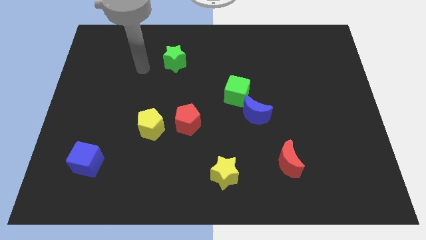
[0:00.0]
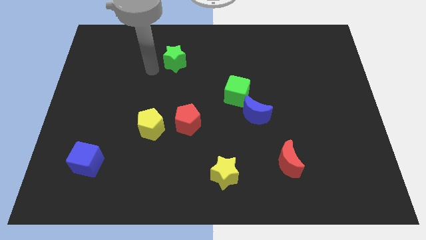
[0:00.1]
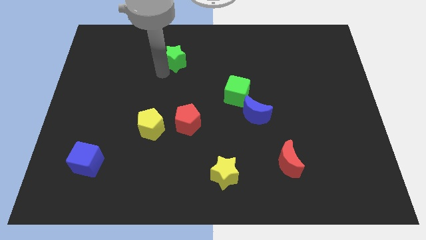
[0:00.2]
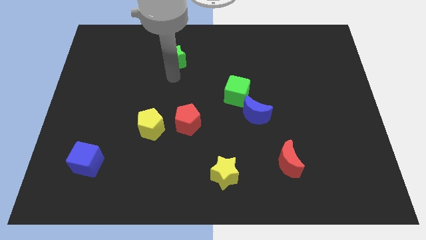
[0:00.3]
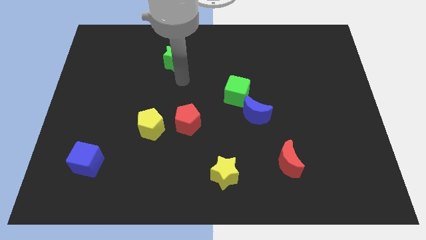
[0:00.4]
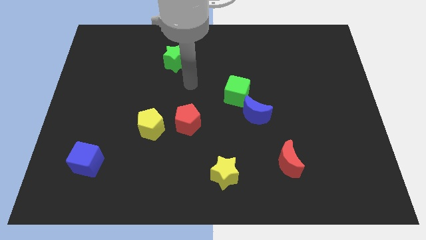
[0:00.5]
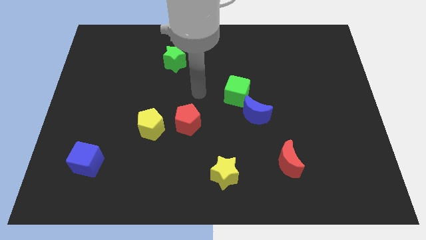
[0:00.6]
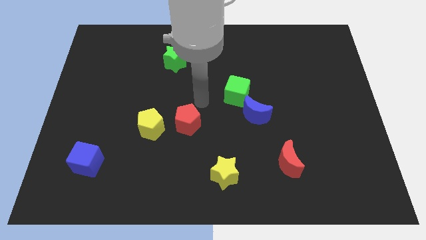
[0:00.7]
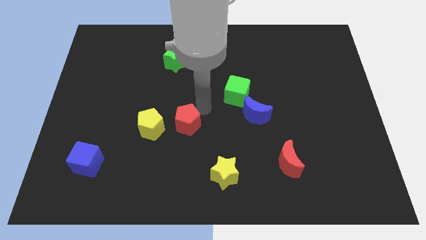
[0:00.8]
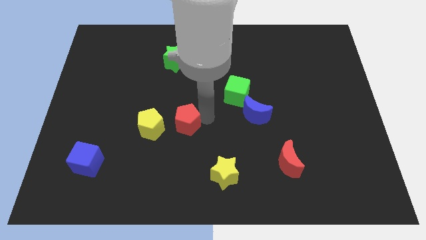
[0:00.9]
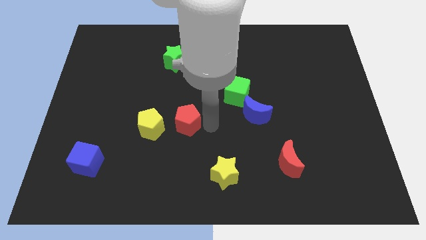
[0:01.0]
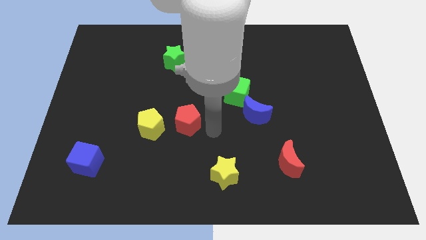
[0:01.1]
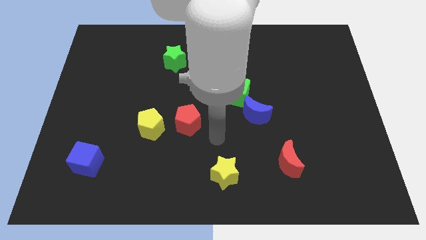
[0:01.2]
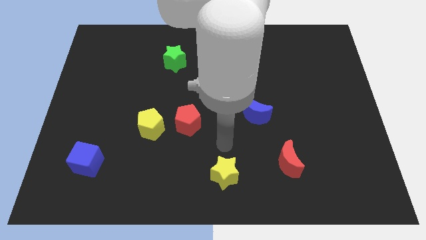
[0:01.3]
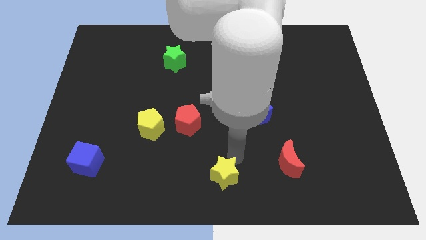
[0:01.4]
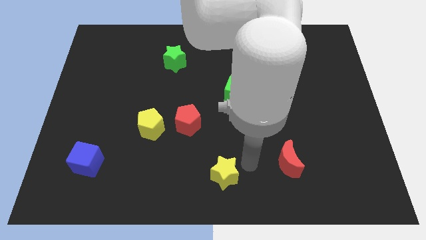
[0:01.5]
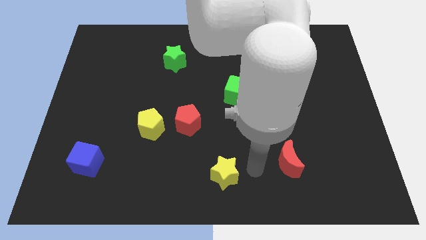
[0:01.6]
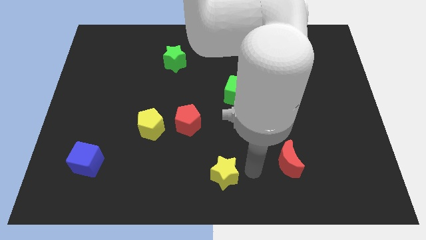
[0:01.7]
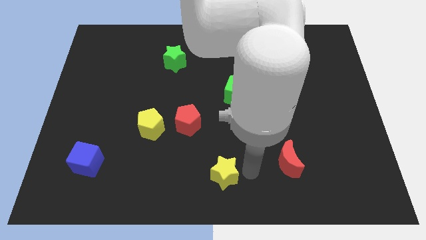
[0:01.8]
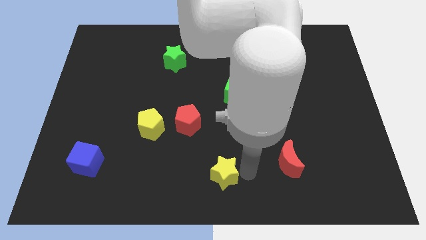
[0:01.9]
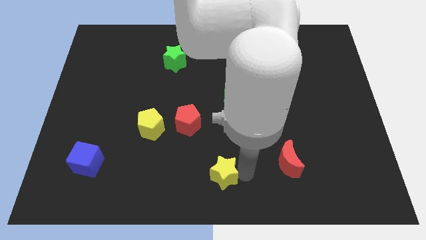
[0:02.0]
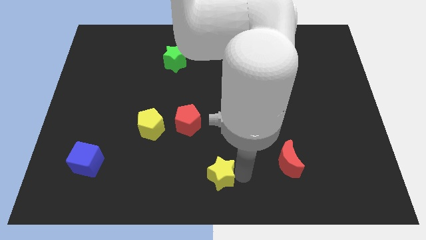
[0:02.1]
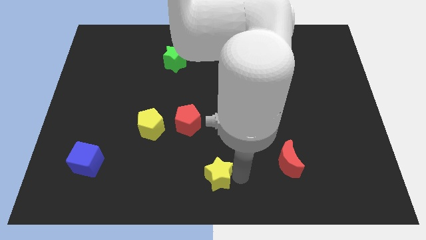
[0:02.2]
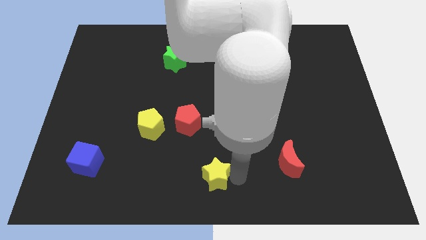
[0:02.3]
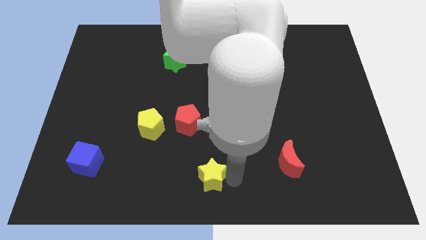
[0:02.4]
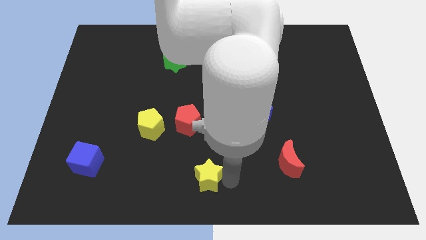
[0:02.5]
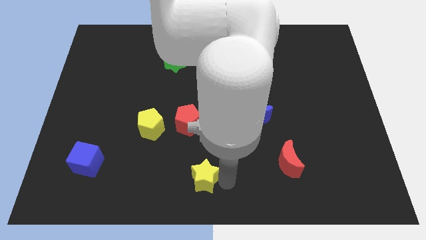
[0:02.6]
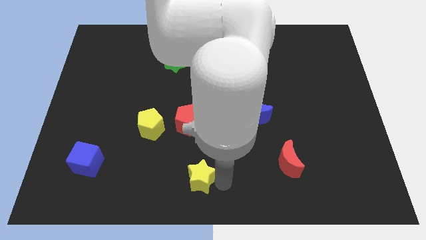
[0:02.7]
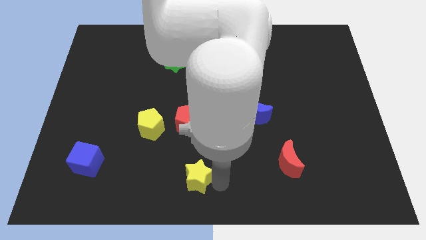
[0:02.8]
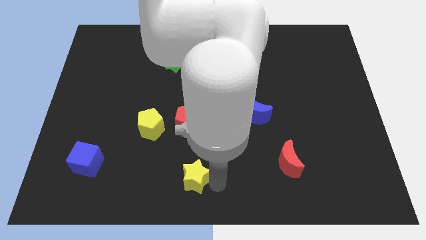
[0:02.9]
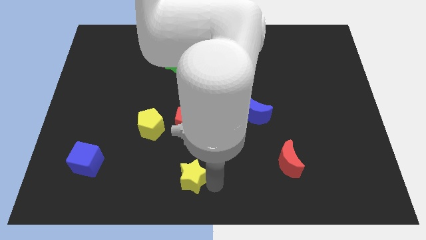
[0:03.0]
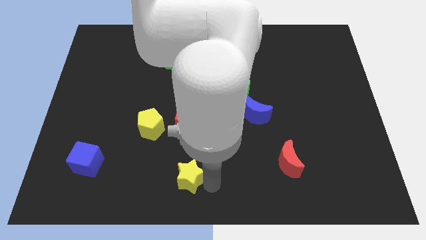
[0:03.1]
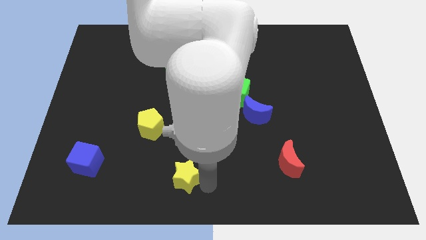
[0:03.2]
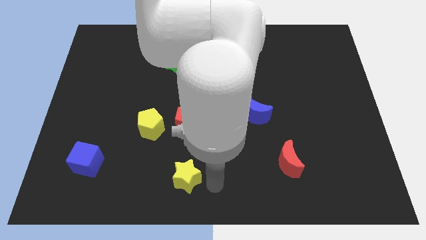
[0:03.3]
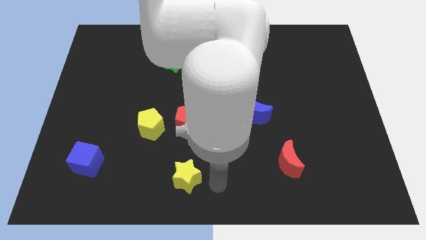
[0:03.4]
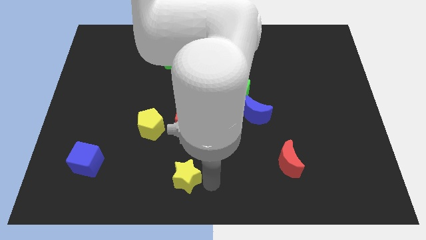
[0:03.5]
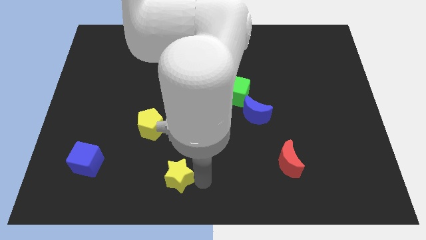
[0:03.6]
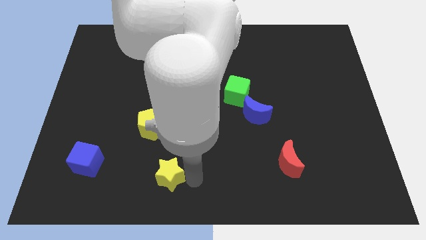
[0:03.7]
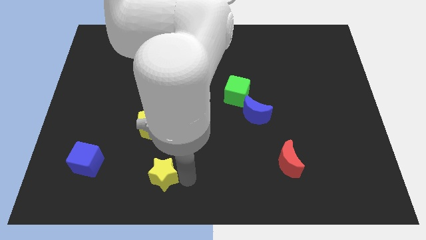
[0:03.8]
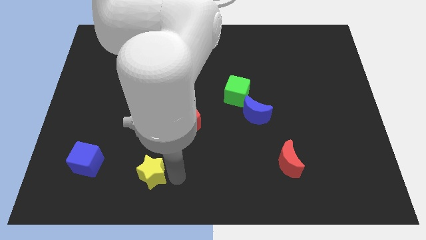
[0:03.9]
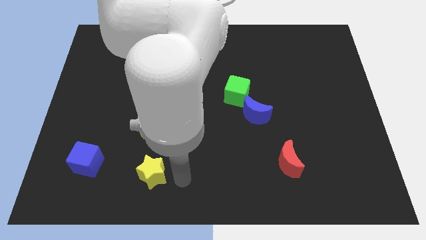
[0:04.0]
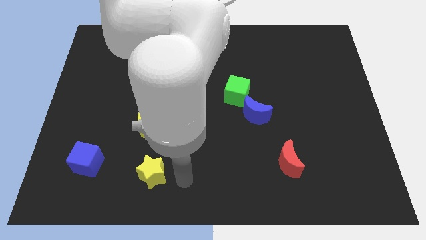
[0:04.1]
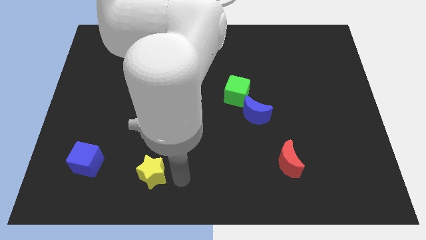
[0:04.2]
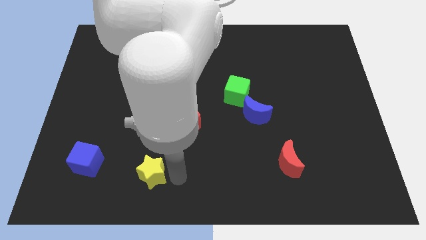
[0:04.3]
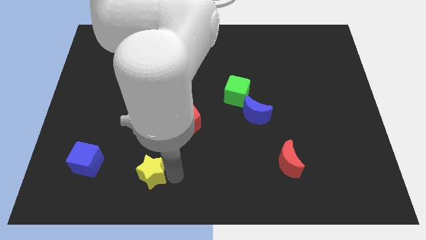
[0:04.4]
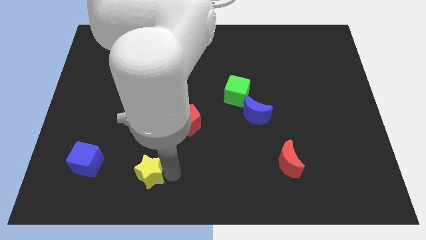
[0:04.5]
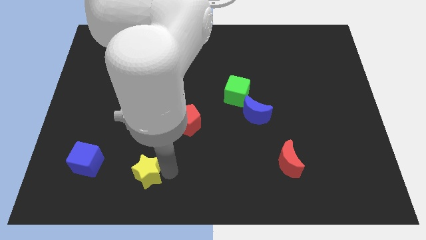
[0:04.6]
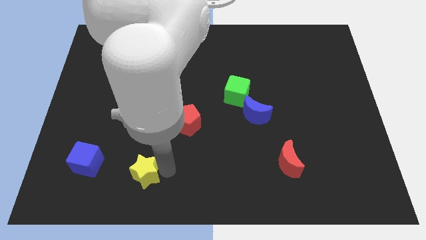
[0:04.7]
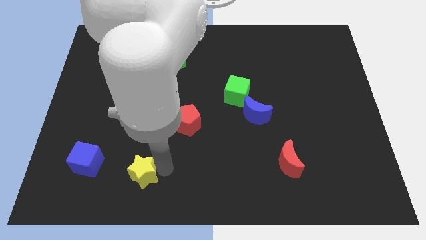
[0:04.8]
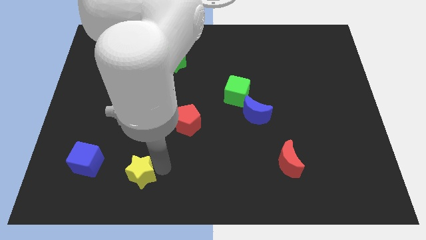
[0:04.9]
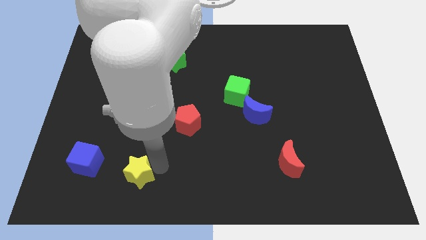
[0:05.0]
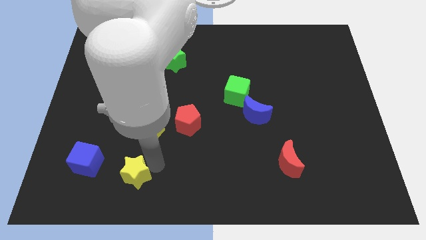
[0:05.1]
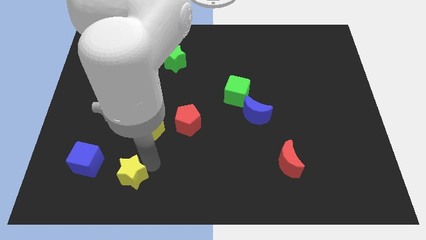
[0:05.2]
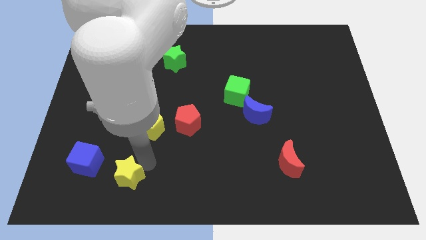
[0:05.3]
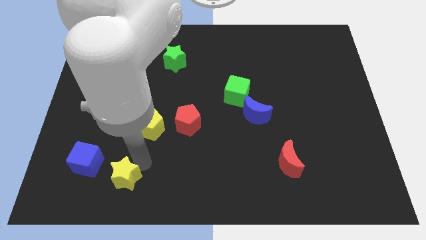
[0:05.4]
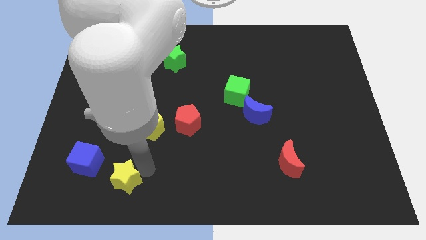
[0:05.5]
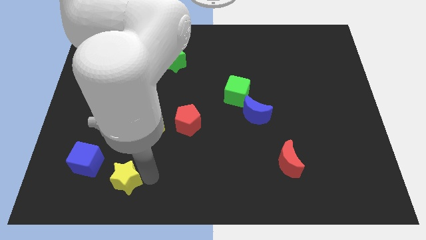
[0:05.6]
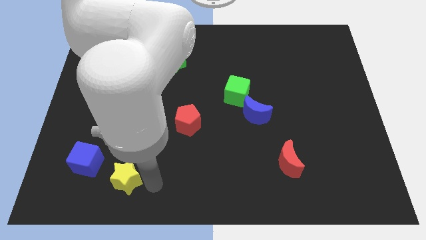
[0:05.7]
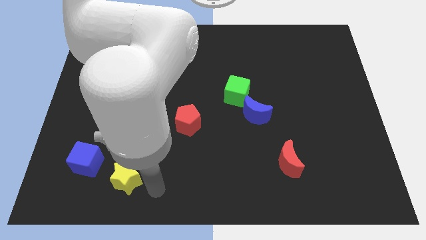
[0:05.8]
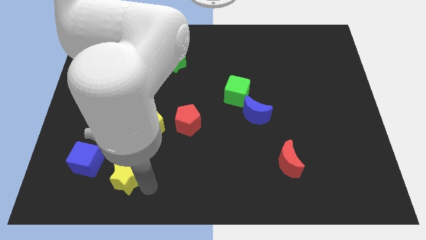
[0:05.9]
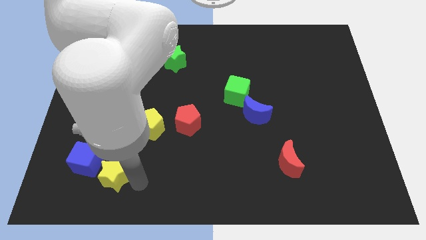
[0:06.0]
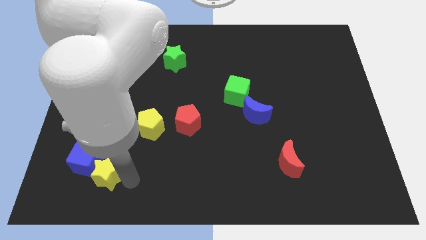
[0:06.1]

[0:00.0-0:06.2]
move the yellow star close to the blue cube

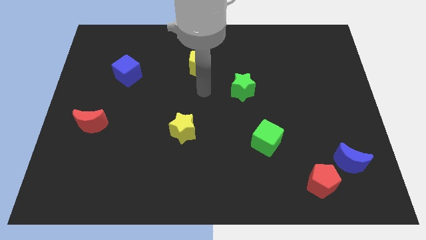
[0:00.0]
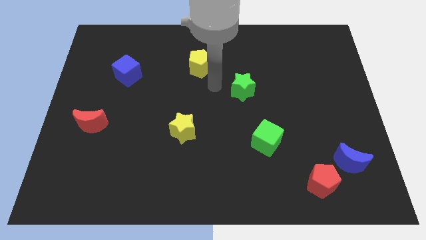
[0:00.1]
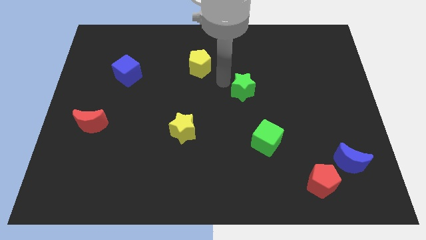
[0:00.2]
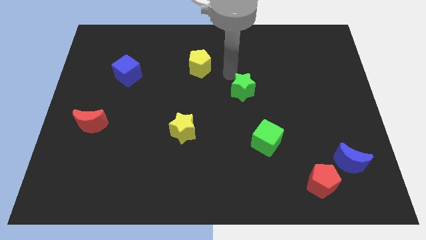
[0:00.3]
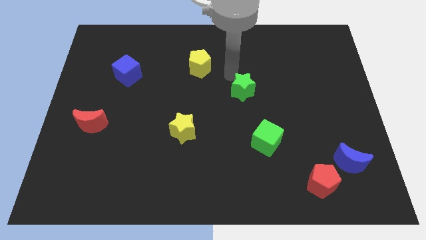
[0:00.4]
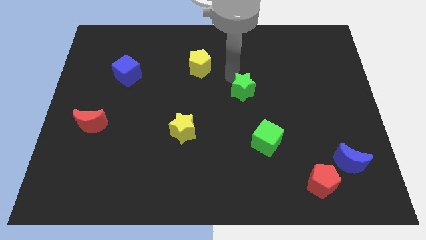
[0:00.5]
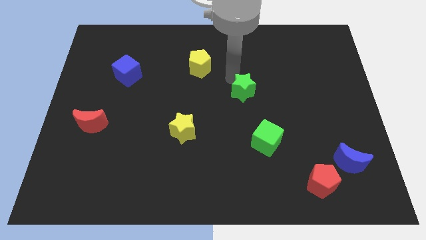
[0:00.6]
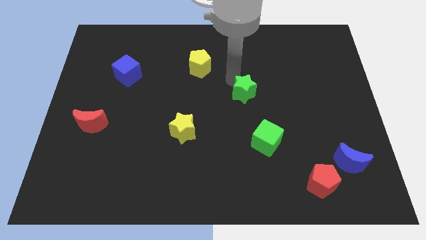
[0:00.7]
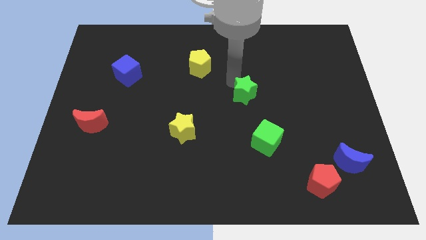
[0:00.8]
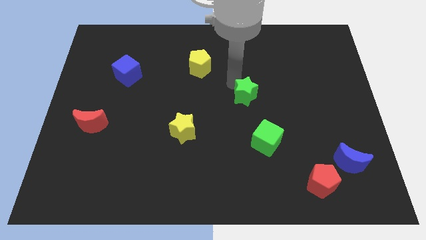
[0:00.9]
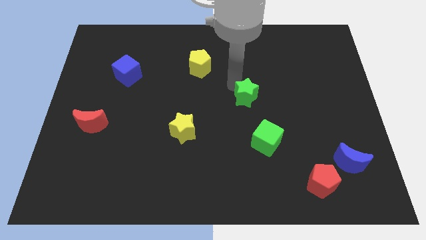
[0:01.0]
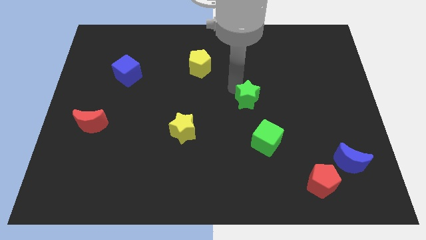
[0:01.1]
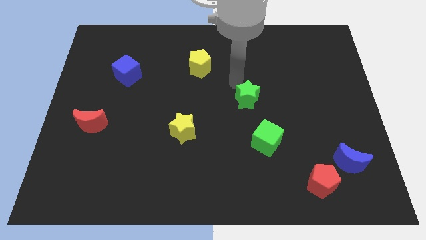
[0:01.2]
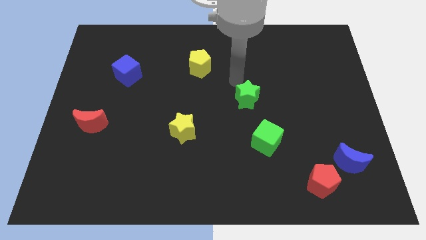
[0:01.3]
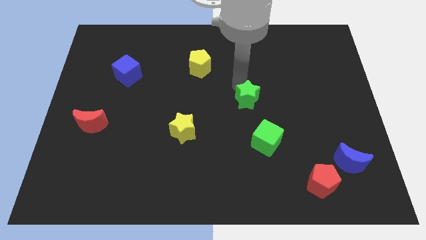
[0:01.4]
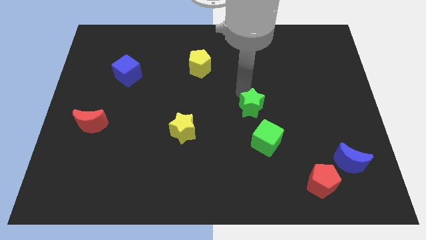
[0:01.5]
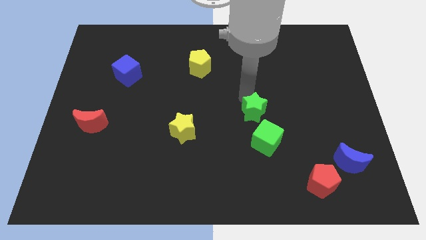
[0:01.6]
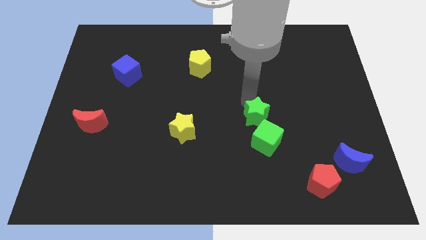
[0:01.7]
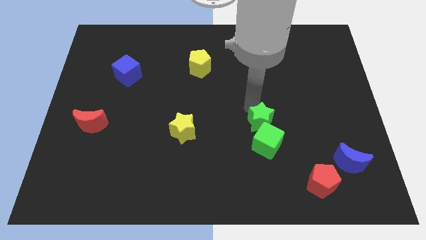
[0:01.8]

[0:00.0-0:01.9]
put the green star close to the green cube

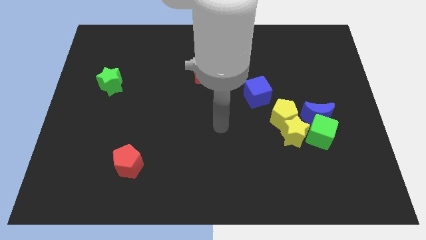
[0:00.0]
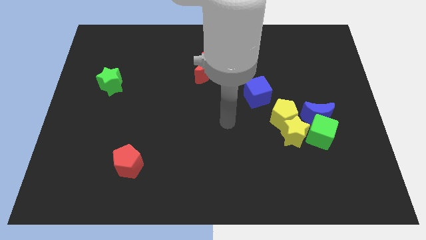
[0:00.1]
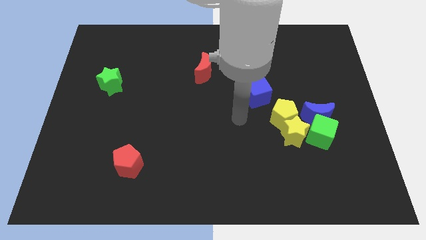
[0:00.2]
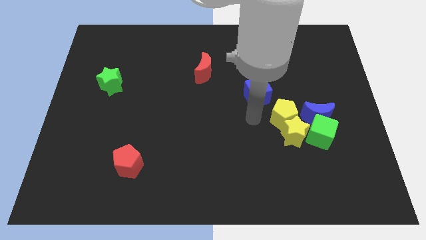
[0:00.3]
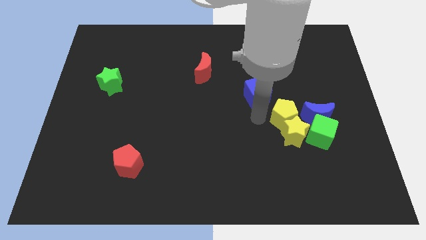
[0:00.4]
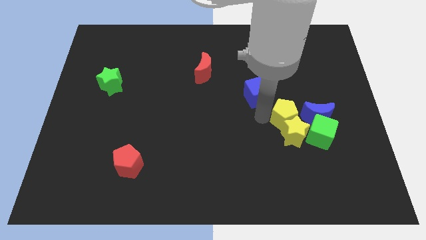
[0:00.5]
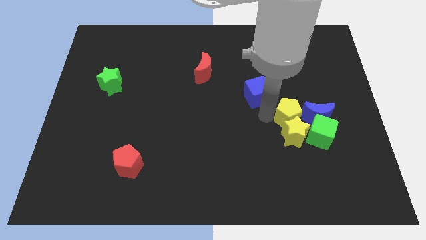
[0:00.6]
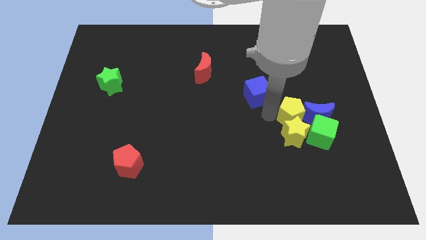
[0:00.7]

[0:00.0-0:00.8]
push the yellow pentagon towards the blue moon
